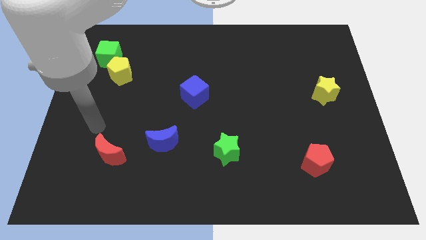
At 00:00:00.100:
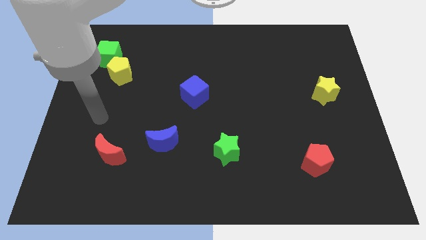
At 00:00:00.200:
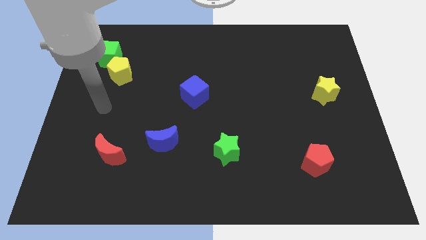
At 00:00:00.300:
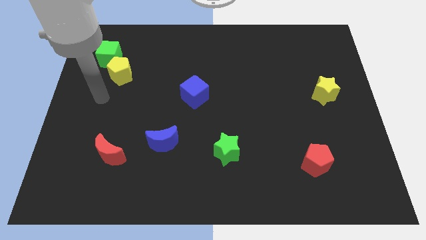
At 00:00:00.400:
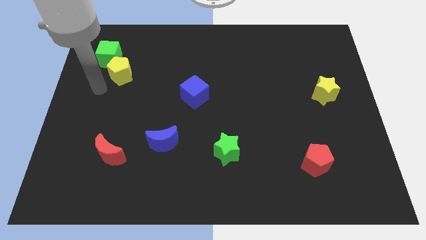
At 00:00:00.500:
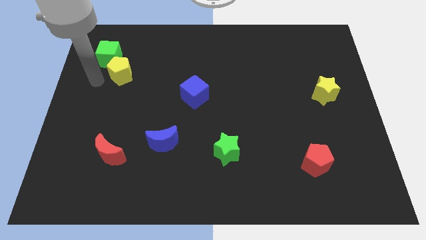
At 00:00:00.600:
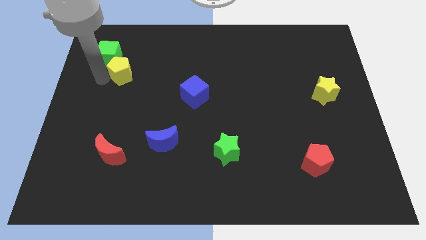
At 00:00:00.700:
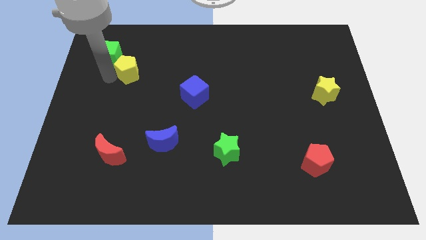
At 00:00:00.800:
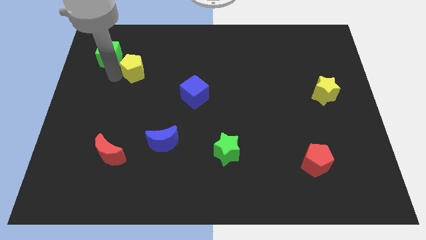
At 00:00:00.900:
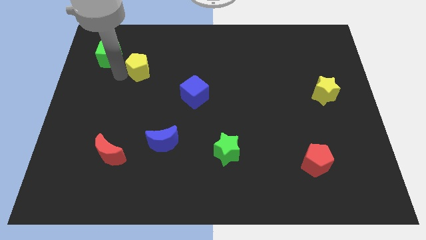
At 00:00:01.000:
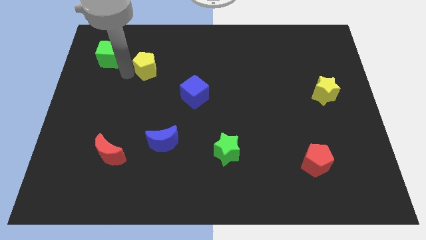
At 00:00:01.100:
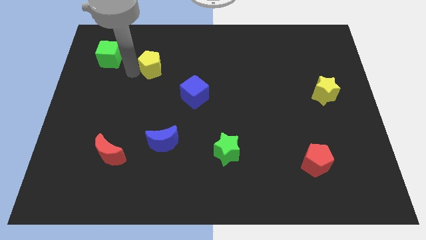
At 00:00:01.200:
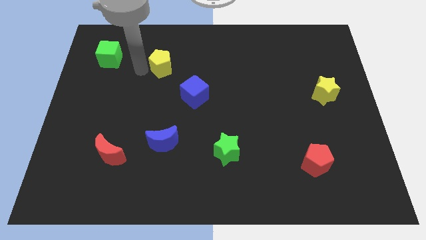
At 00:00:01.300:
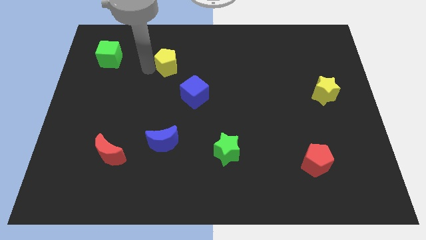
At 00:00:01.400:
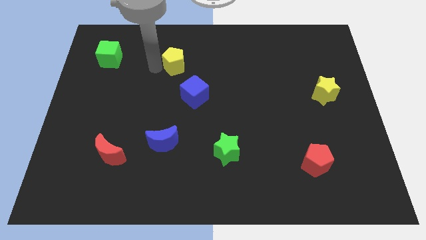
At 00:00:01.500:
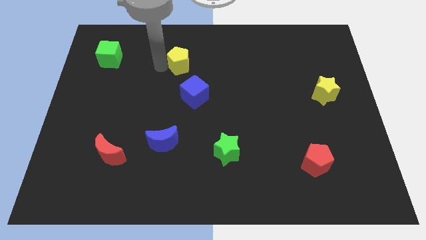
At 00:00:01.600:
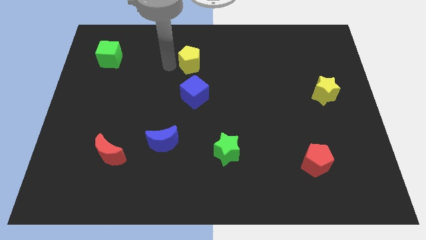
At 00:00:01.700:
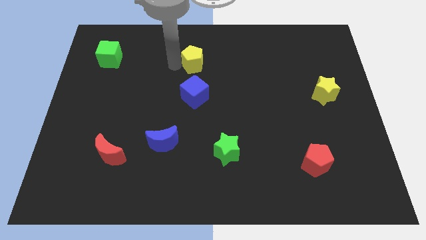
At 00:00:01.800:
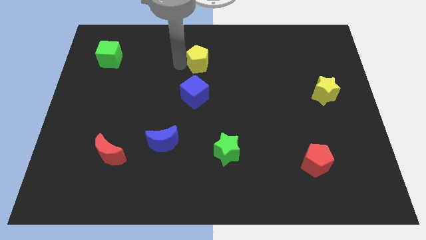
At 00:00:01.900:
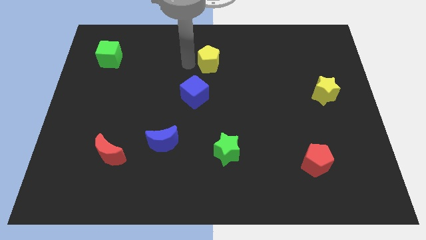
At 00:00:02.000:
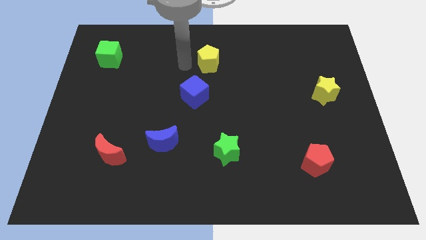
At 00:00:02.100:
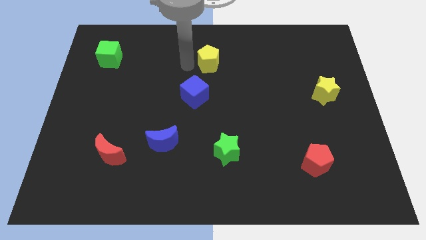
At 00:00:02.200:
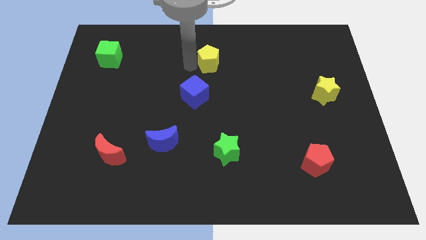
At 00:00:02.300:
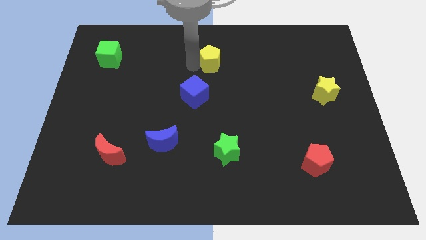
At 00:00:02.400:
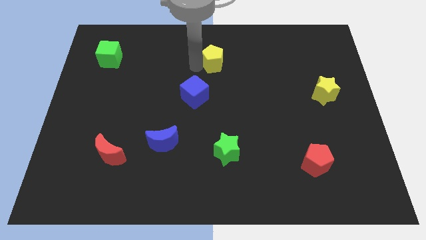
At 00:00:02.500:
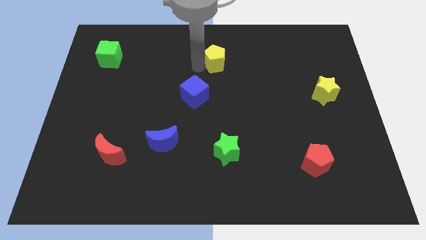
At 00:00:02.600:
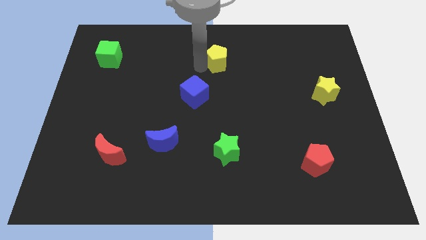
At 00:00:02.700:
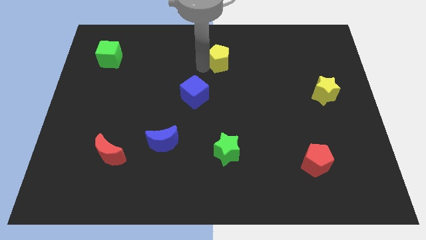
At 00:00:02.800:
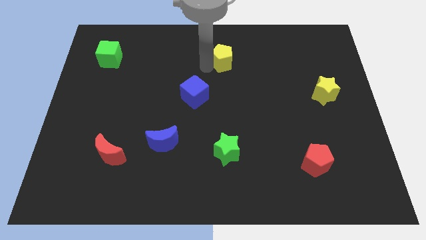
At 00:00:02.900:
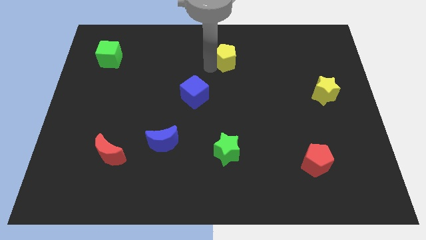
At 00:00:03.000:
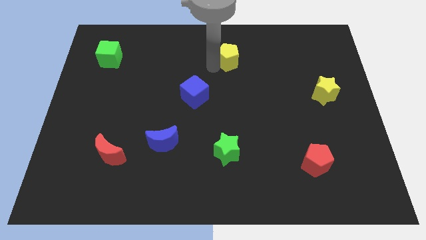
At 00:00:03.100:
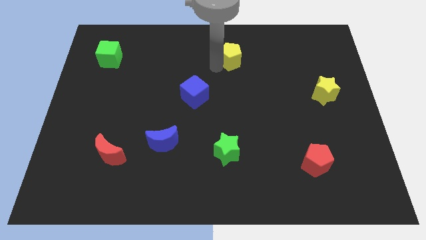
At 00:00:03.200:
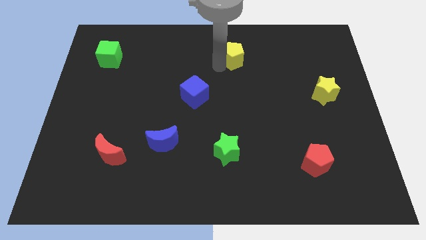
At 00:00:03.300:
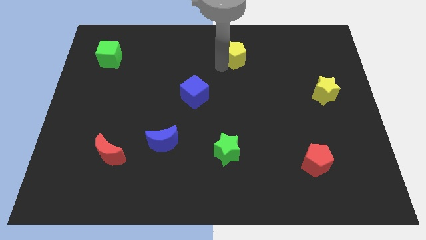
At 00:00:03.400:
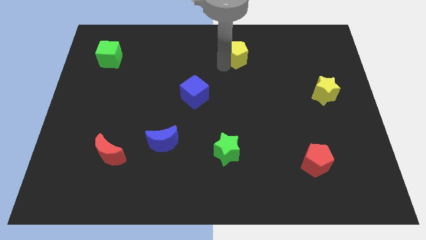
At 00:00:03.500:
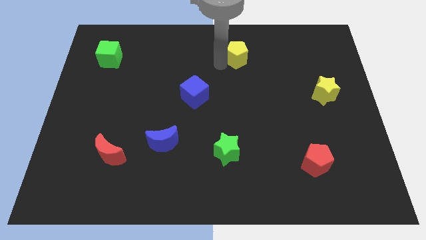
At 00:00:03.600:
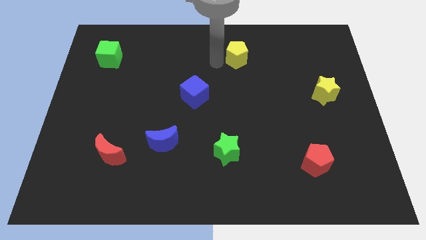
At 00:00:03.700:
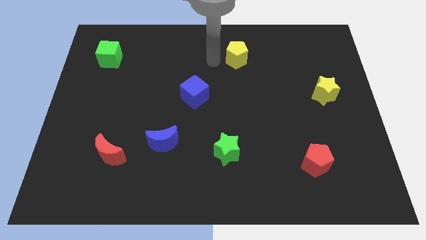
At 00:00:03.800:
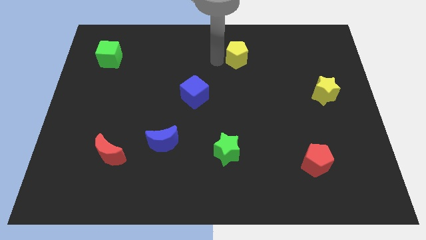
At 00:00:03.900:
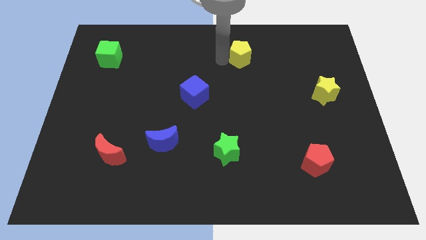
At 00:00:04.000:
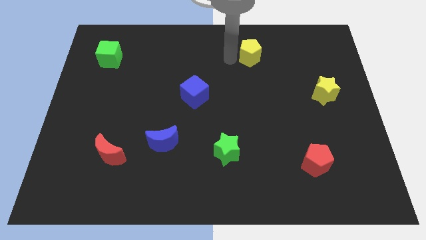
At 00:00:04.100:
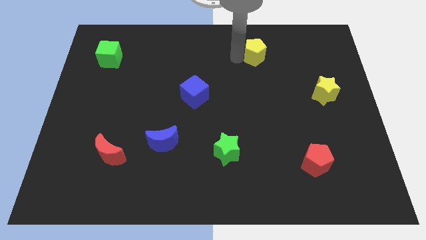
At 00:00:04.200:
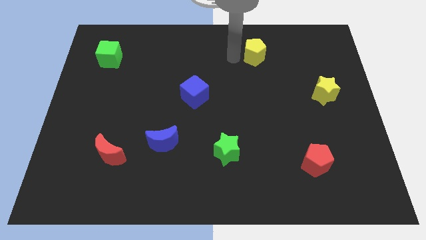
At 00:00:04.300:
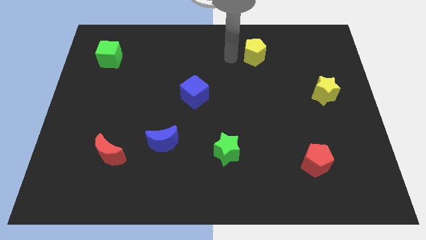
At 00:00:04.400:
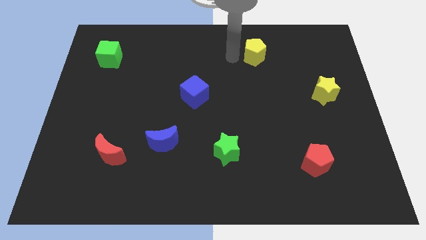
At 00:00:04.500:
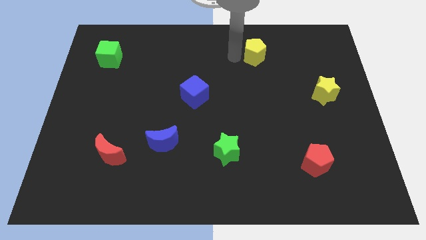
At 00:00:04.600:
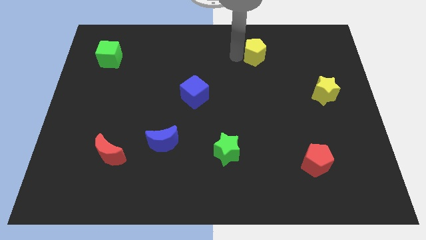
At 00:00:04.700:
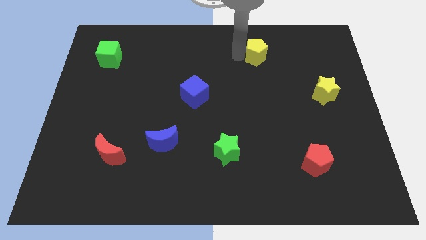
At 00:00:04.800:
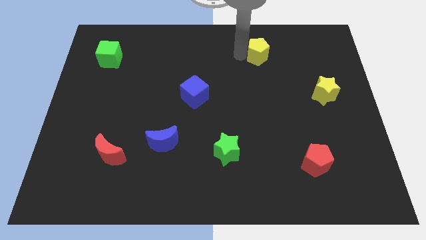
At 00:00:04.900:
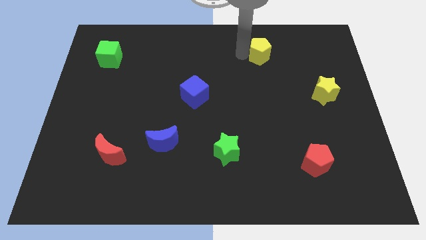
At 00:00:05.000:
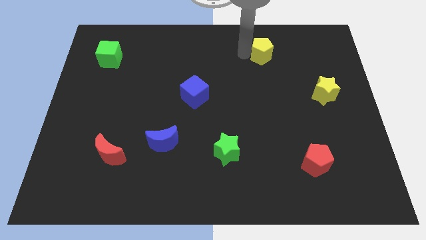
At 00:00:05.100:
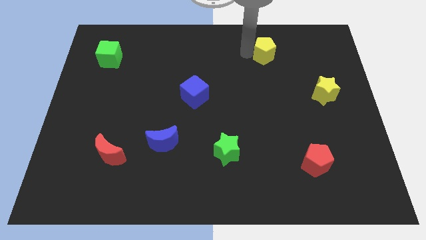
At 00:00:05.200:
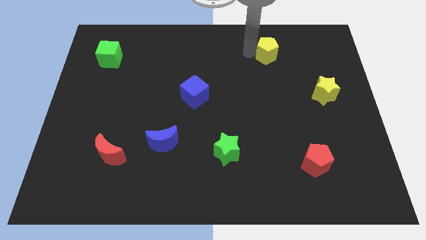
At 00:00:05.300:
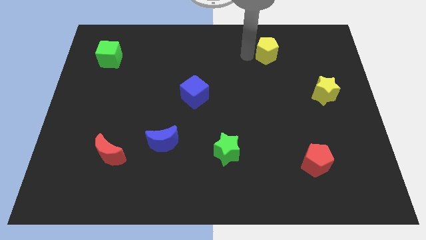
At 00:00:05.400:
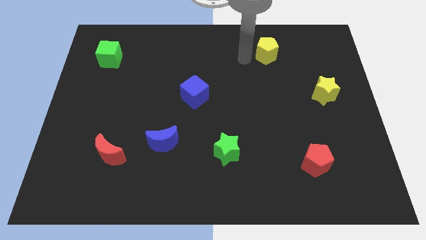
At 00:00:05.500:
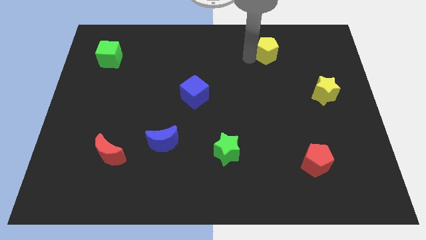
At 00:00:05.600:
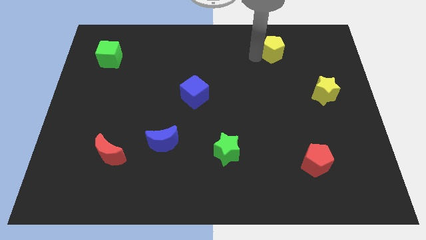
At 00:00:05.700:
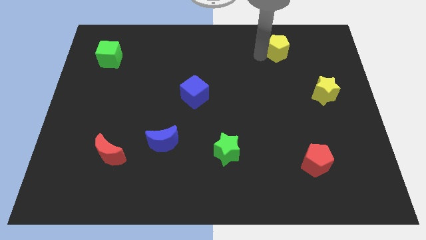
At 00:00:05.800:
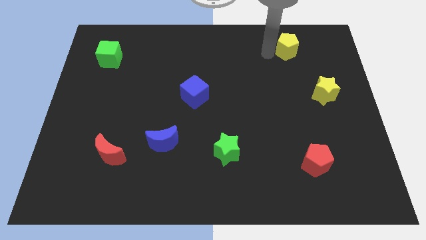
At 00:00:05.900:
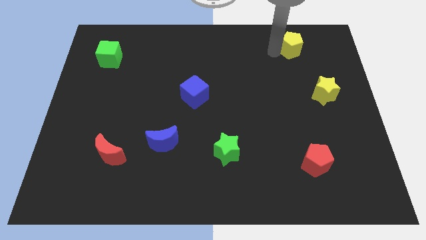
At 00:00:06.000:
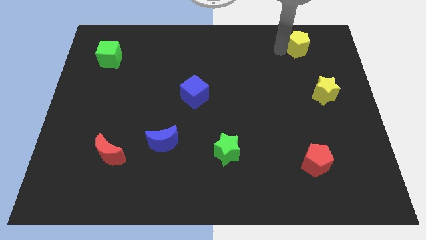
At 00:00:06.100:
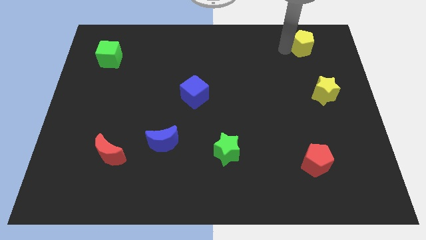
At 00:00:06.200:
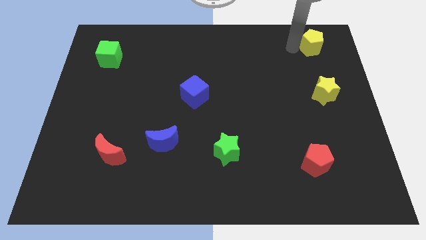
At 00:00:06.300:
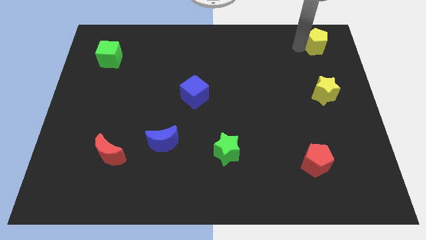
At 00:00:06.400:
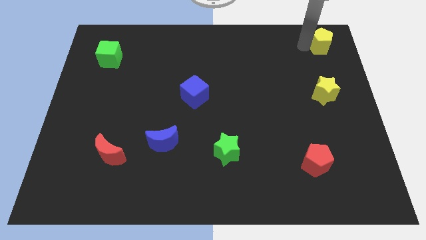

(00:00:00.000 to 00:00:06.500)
move the yellow pentagon to the top right
